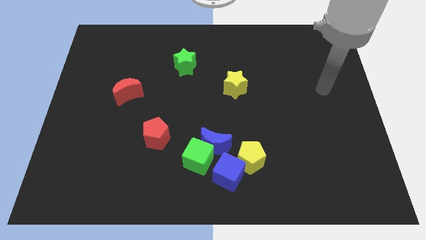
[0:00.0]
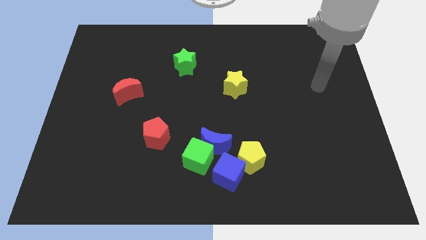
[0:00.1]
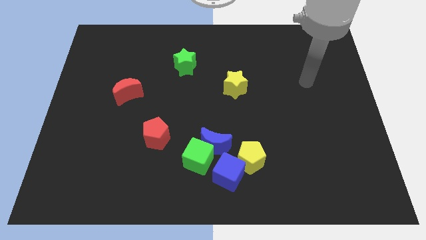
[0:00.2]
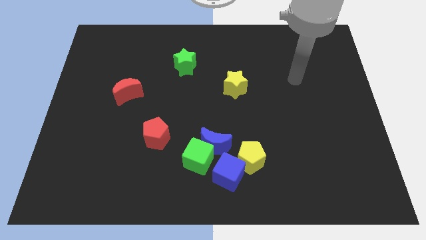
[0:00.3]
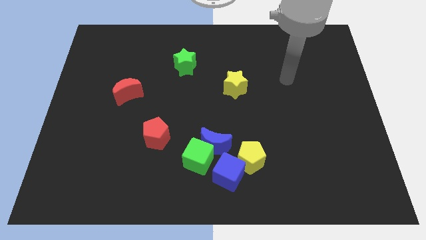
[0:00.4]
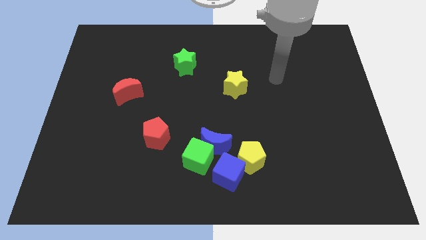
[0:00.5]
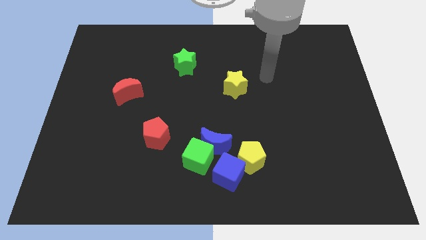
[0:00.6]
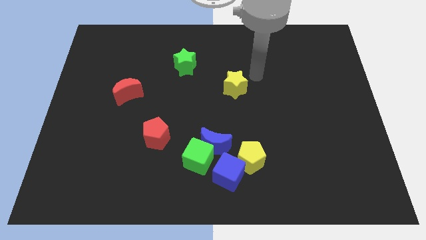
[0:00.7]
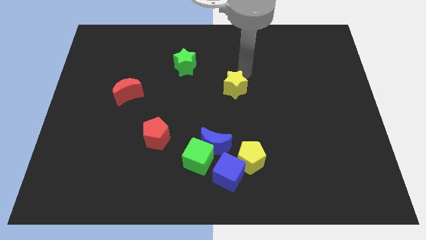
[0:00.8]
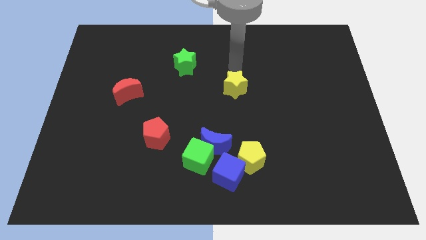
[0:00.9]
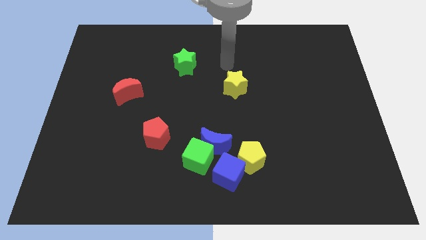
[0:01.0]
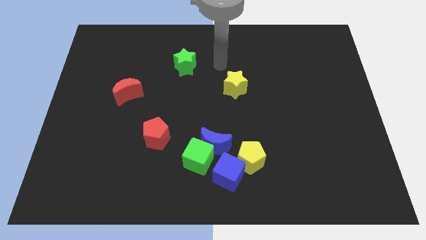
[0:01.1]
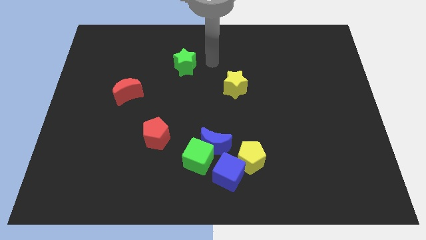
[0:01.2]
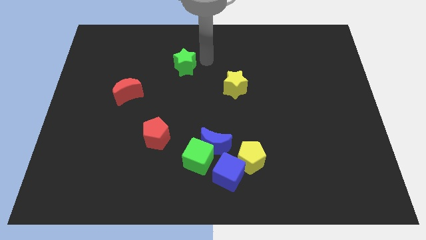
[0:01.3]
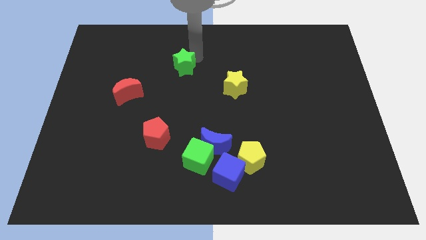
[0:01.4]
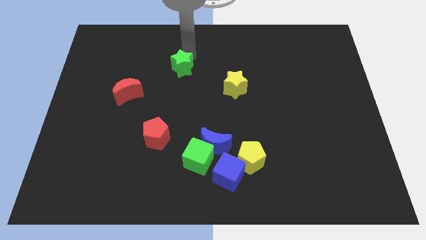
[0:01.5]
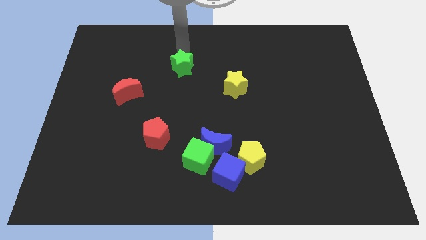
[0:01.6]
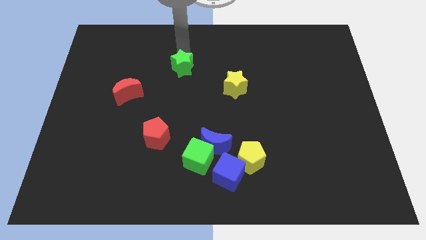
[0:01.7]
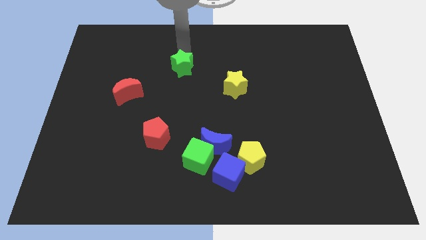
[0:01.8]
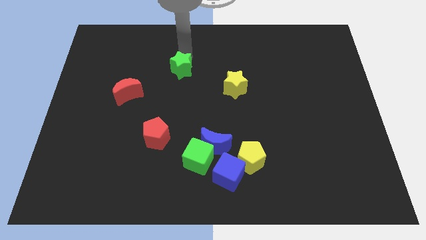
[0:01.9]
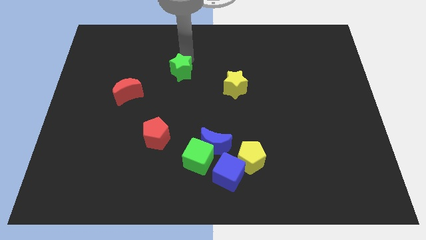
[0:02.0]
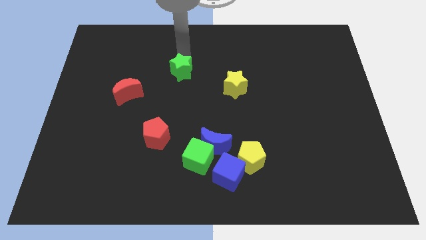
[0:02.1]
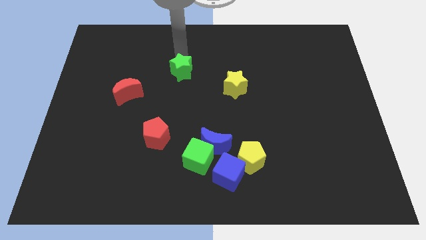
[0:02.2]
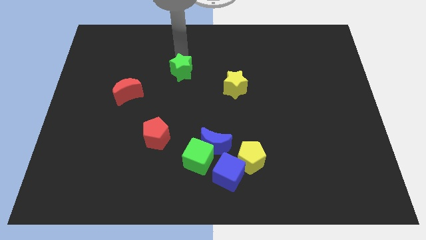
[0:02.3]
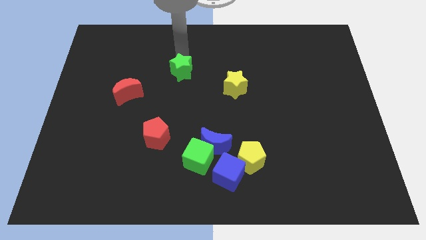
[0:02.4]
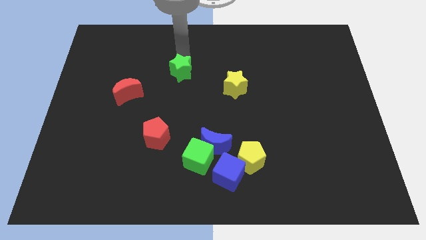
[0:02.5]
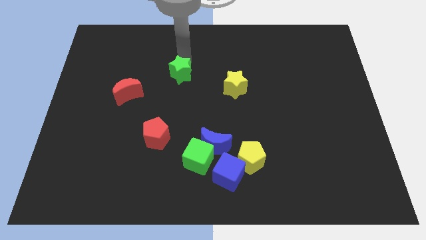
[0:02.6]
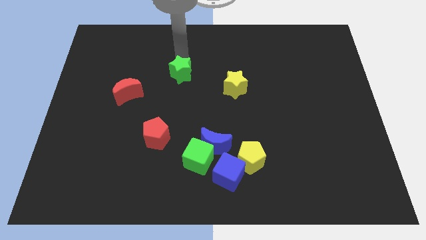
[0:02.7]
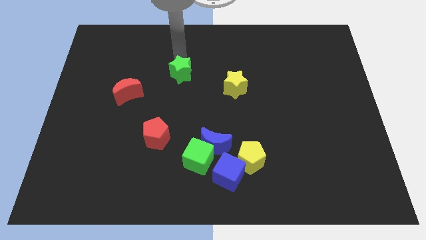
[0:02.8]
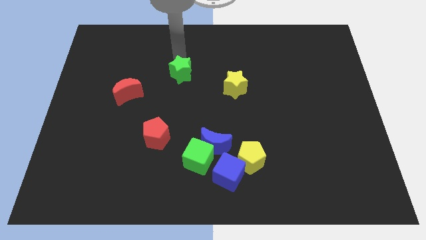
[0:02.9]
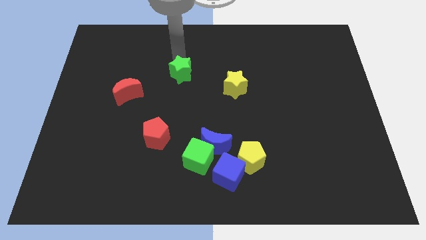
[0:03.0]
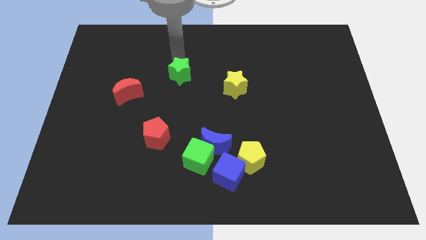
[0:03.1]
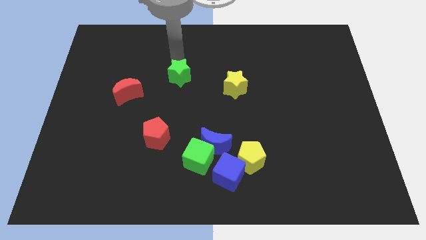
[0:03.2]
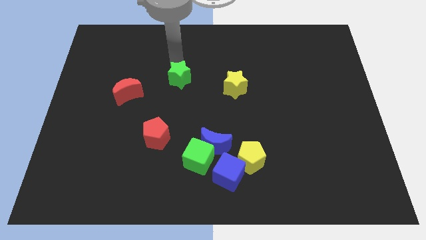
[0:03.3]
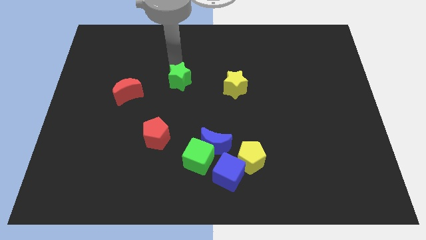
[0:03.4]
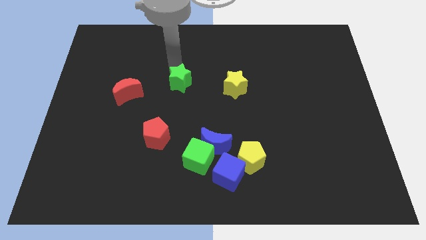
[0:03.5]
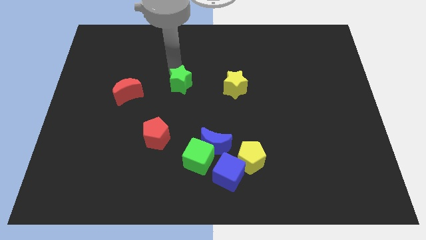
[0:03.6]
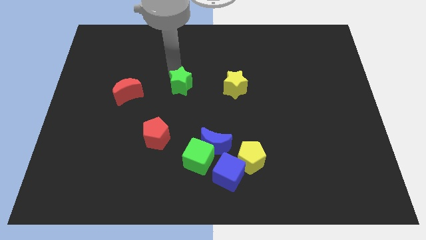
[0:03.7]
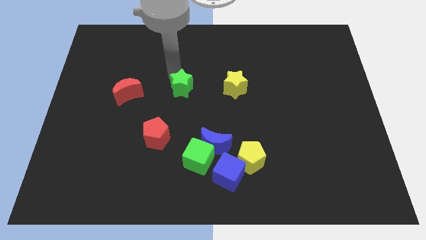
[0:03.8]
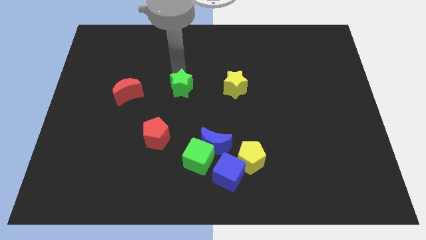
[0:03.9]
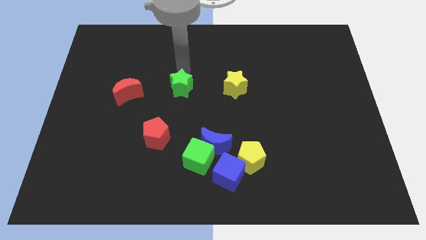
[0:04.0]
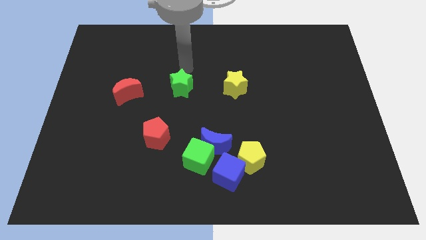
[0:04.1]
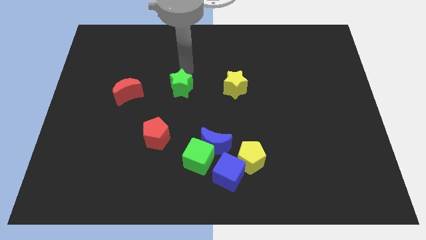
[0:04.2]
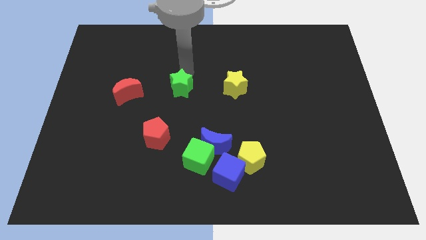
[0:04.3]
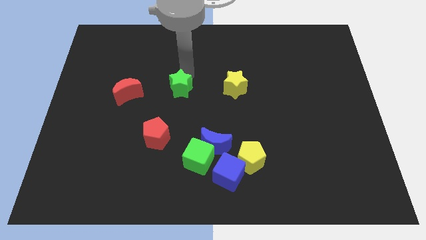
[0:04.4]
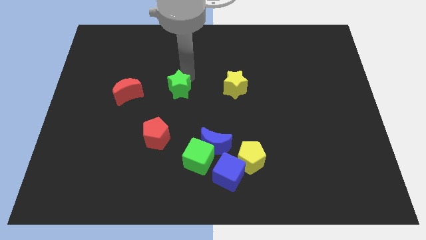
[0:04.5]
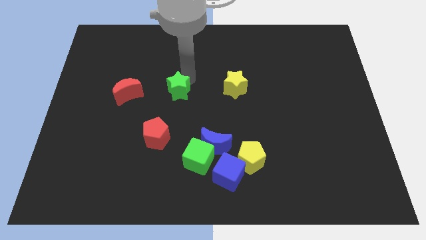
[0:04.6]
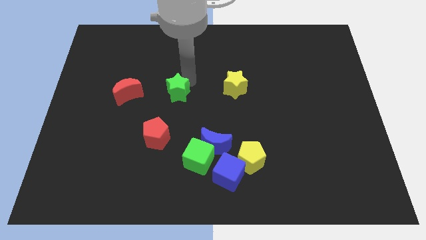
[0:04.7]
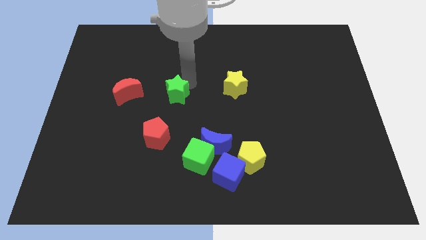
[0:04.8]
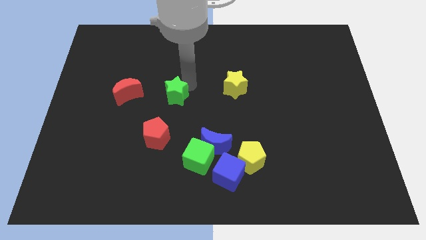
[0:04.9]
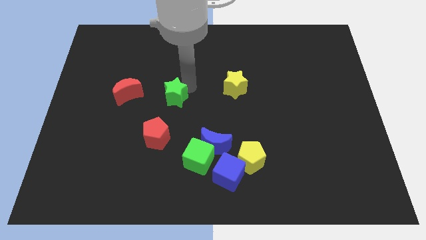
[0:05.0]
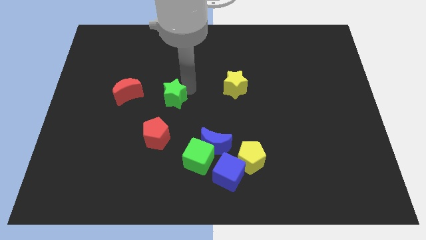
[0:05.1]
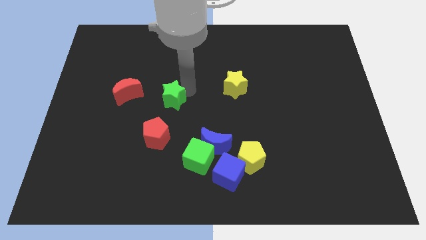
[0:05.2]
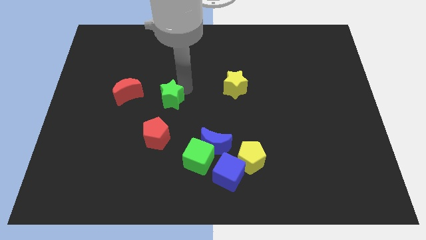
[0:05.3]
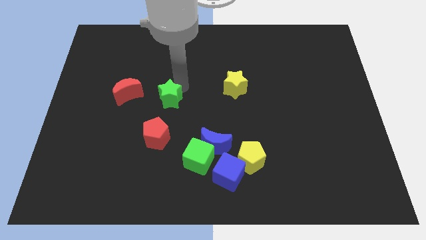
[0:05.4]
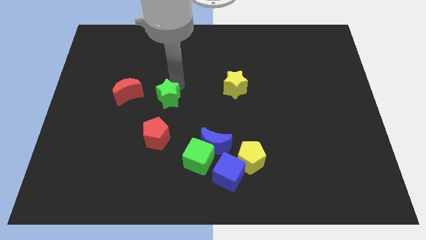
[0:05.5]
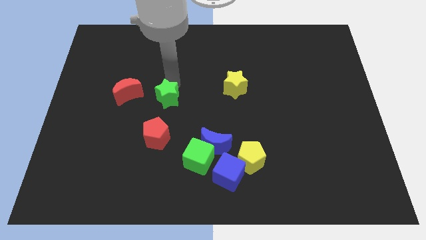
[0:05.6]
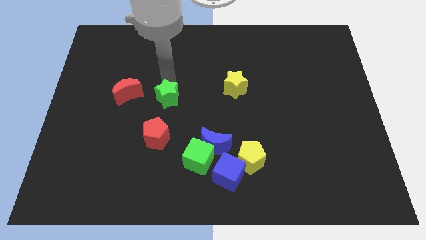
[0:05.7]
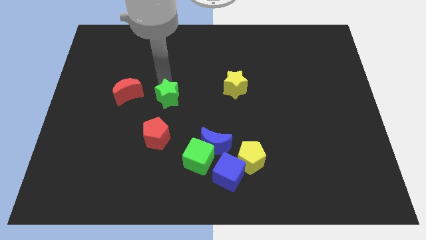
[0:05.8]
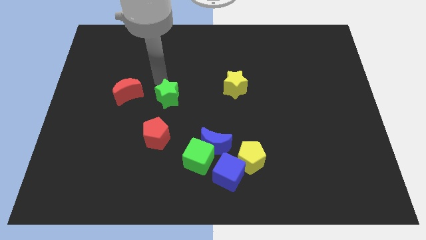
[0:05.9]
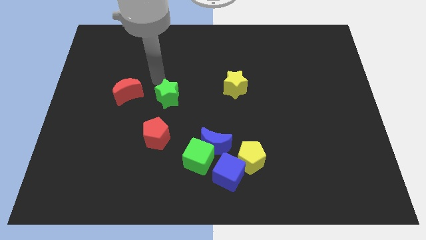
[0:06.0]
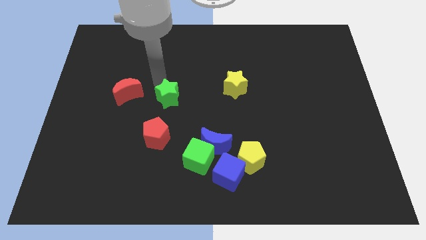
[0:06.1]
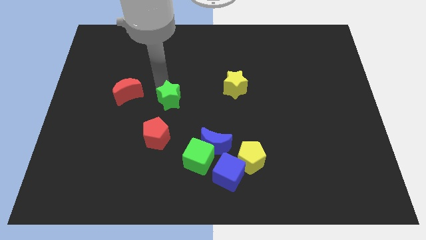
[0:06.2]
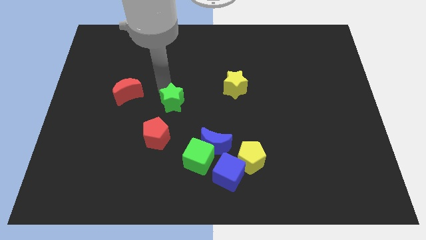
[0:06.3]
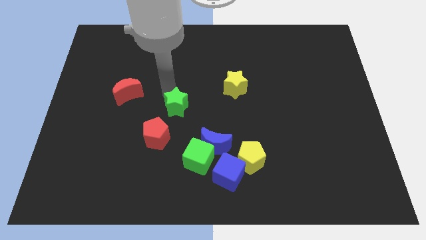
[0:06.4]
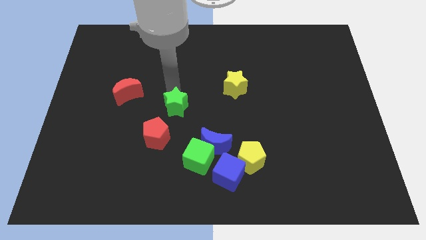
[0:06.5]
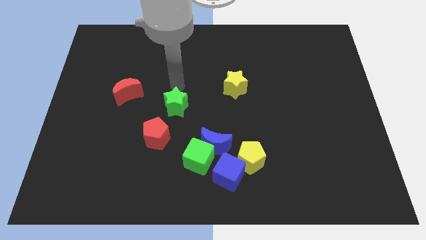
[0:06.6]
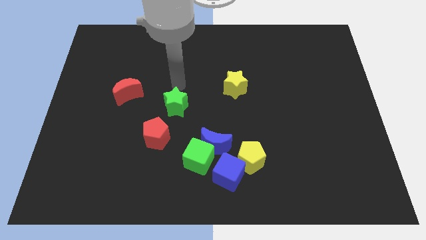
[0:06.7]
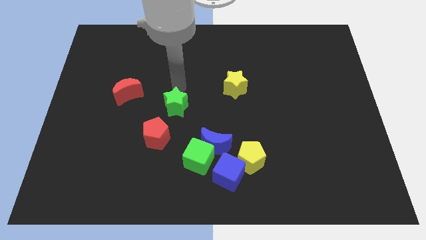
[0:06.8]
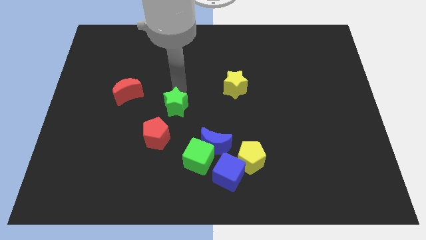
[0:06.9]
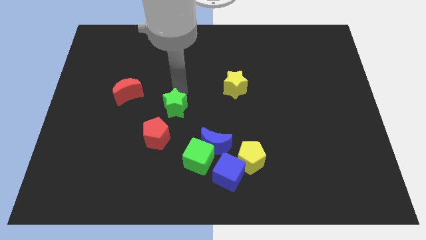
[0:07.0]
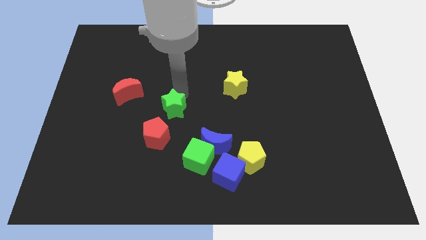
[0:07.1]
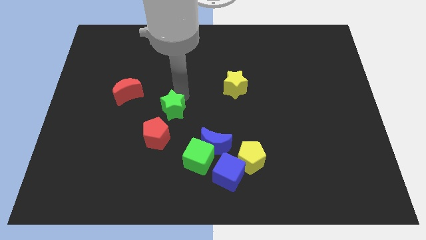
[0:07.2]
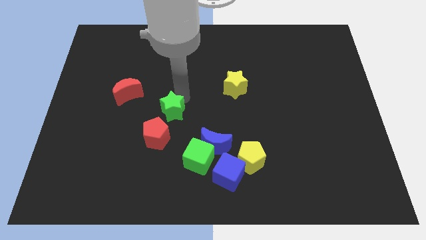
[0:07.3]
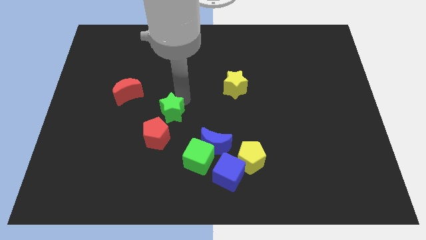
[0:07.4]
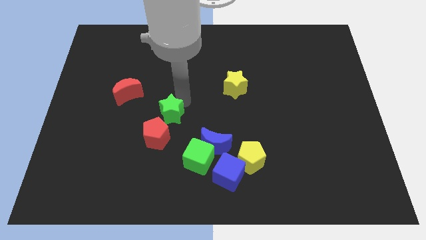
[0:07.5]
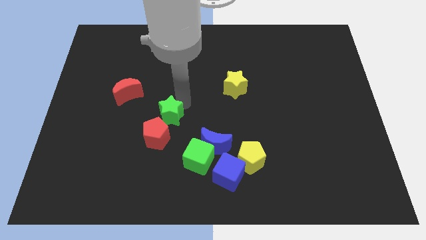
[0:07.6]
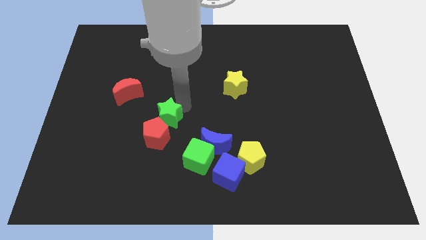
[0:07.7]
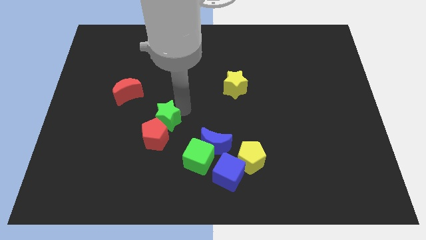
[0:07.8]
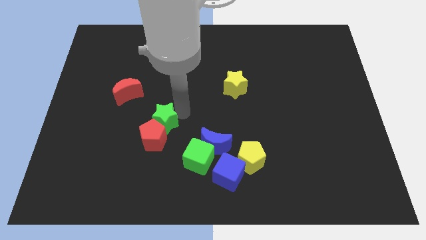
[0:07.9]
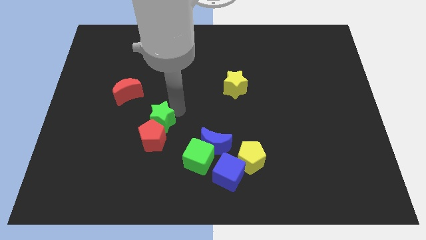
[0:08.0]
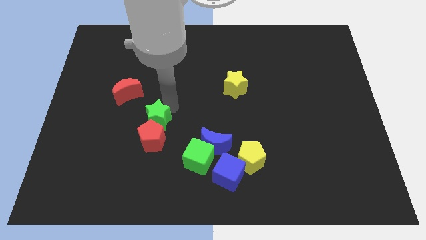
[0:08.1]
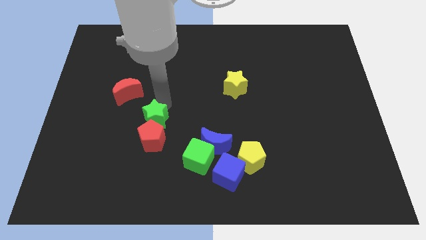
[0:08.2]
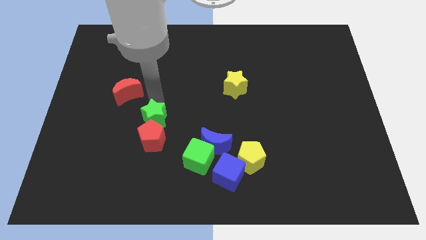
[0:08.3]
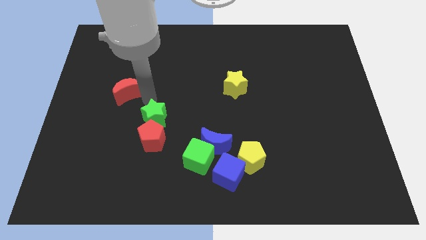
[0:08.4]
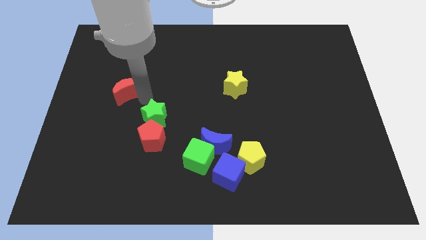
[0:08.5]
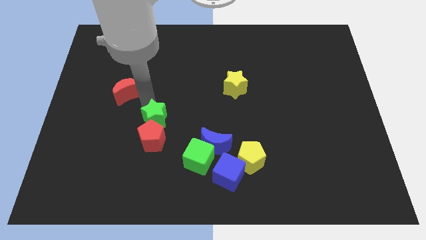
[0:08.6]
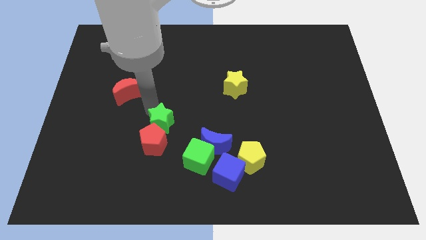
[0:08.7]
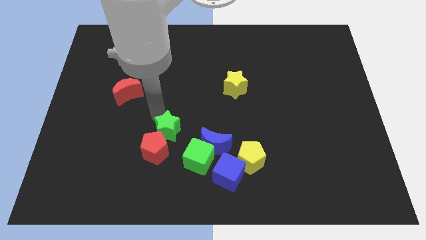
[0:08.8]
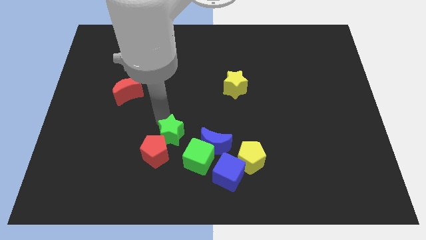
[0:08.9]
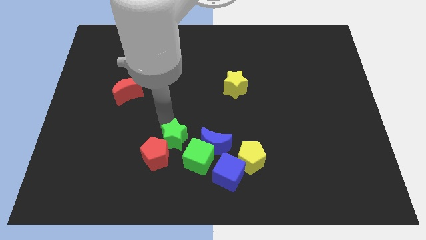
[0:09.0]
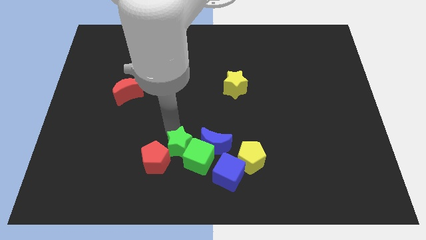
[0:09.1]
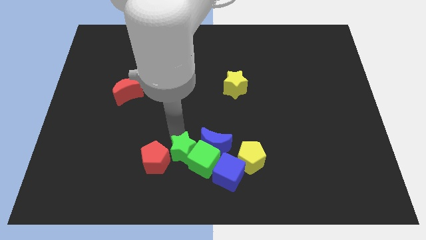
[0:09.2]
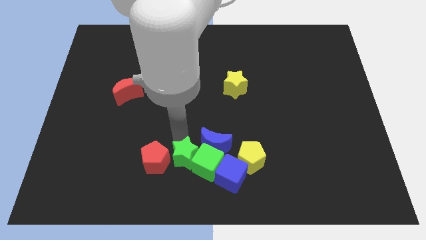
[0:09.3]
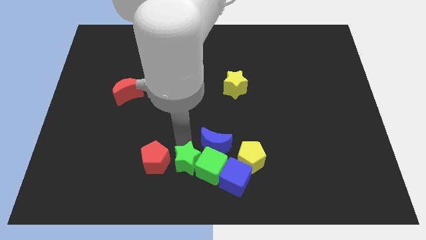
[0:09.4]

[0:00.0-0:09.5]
put the green star to the bottom
